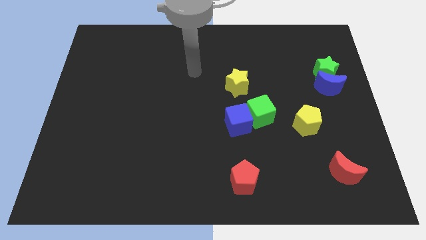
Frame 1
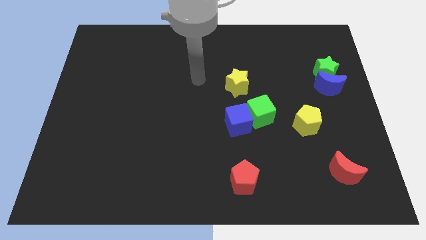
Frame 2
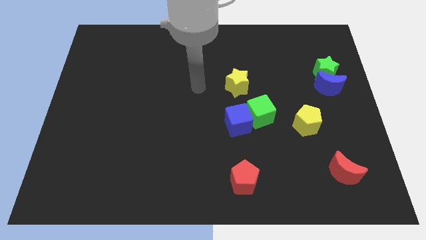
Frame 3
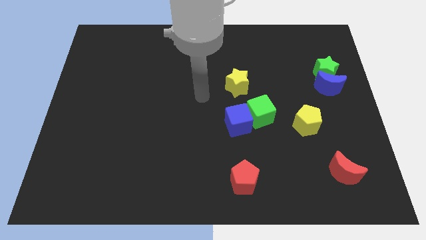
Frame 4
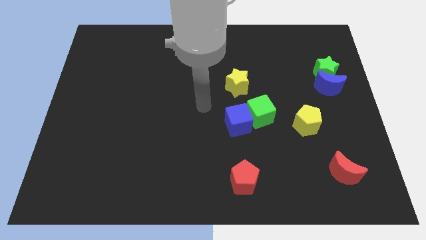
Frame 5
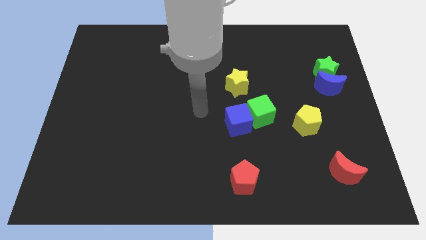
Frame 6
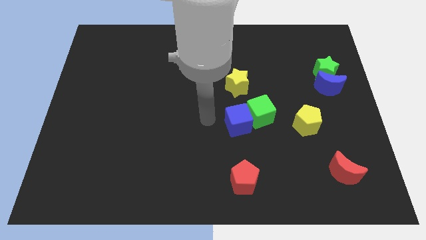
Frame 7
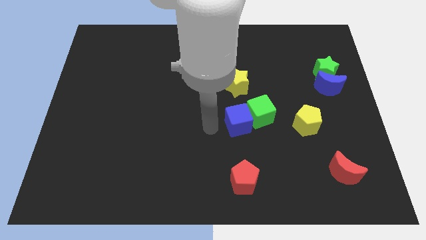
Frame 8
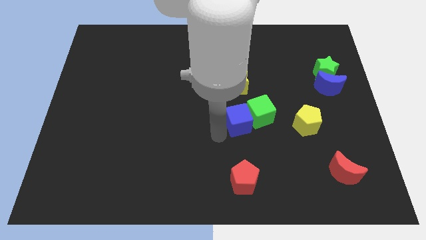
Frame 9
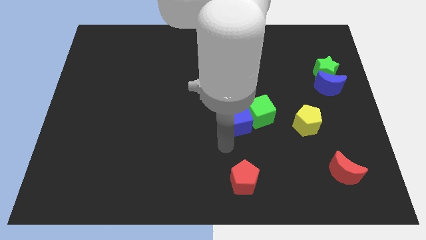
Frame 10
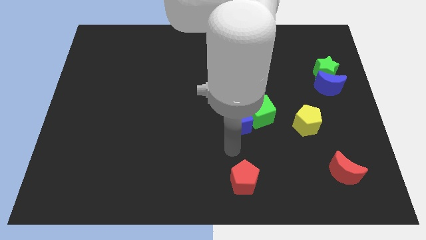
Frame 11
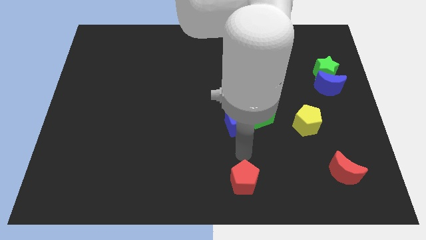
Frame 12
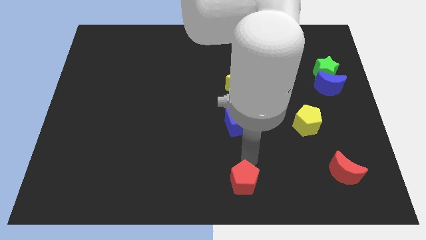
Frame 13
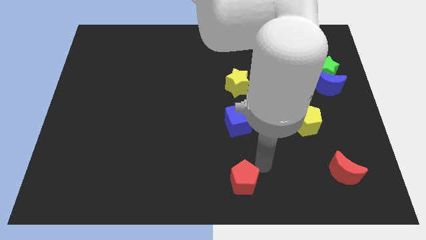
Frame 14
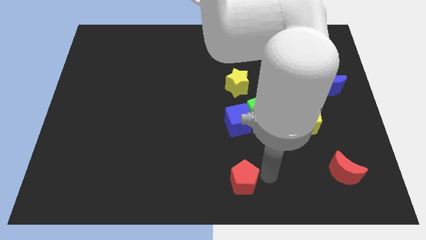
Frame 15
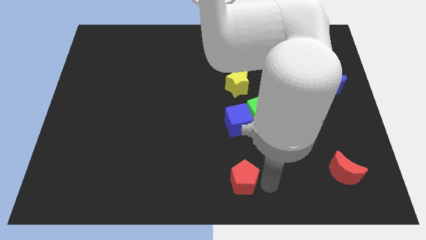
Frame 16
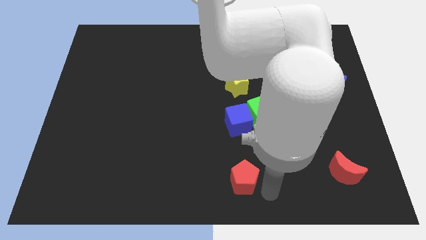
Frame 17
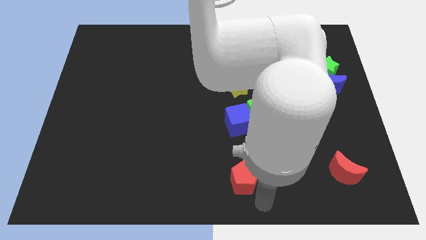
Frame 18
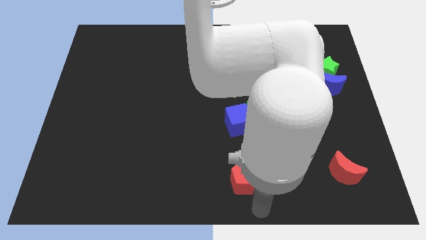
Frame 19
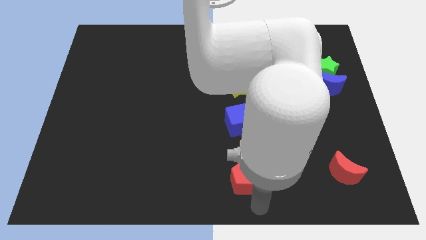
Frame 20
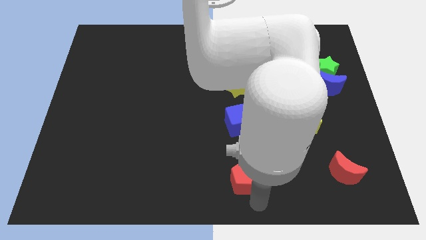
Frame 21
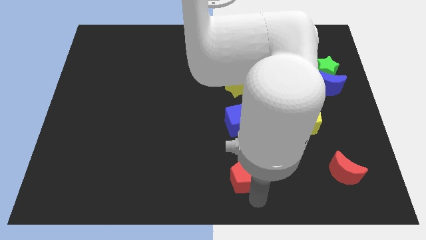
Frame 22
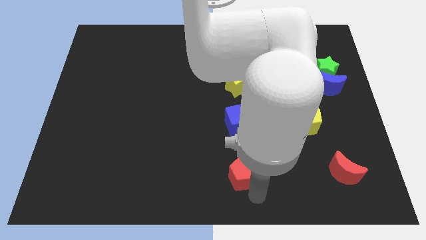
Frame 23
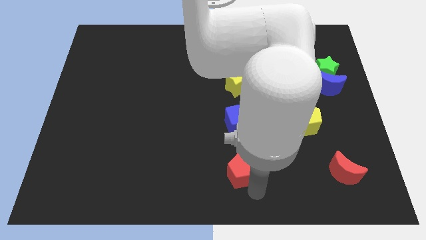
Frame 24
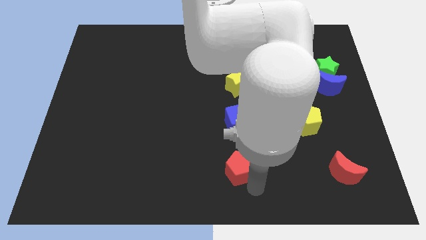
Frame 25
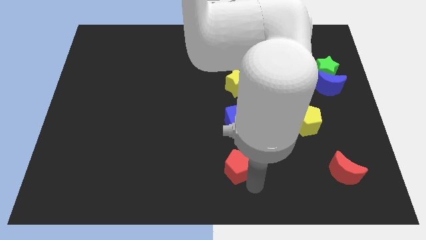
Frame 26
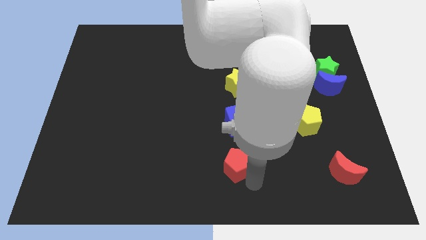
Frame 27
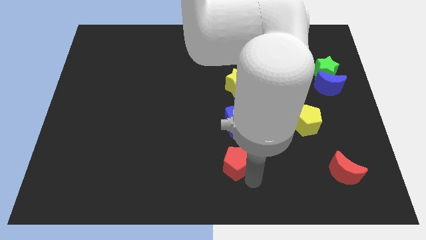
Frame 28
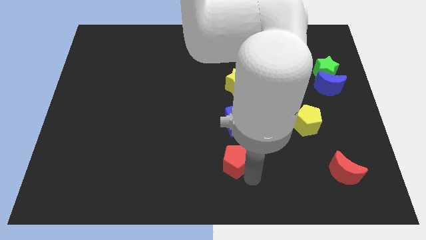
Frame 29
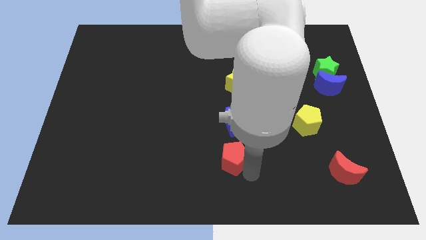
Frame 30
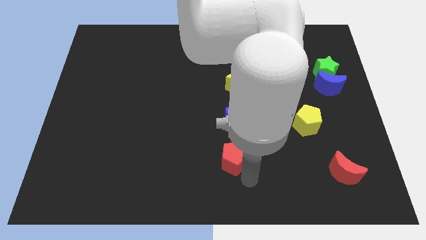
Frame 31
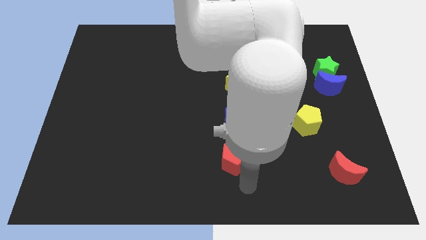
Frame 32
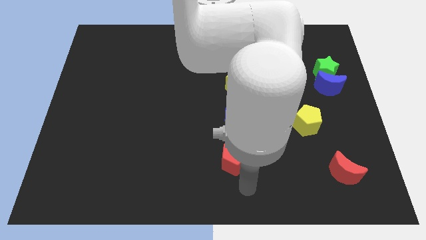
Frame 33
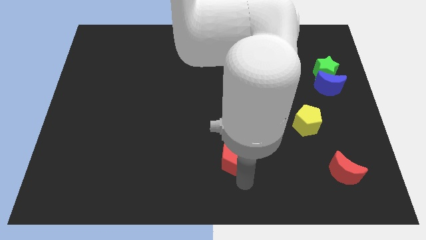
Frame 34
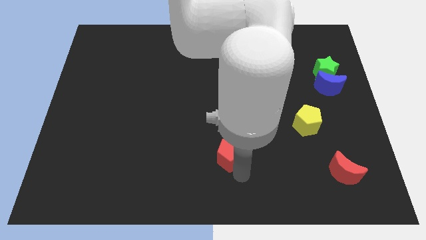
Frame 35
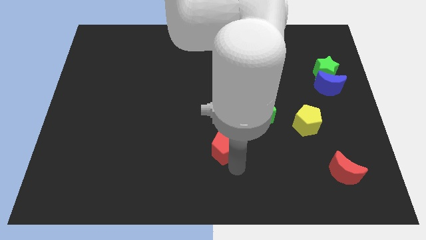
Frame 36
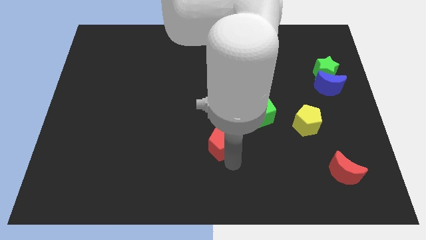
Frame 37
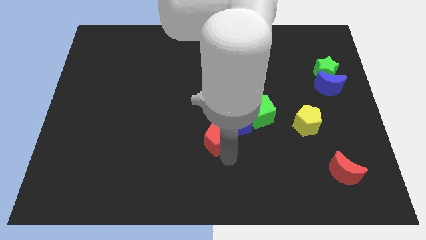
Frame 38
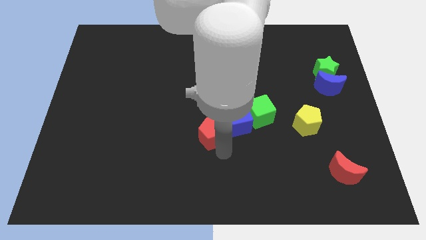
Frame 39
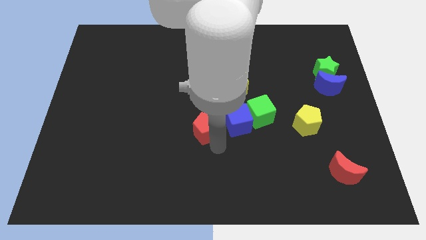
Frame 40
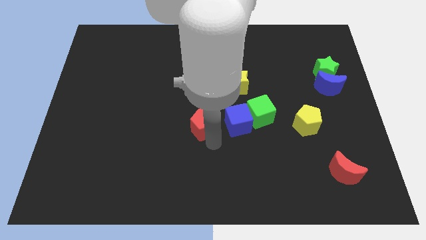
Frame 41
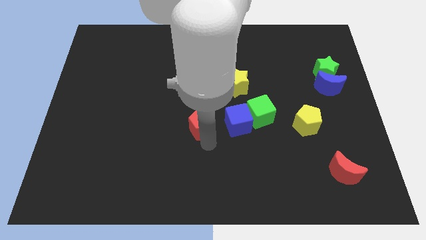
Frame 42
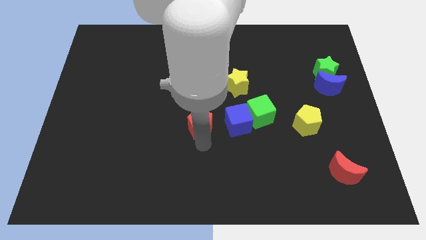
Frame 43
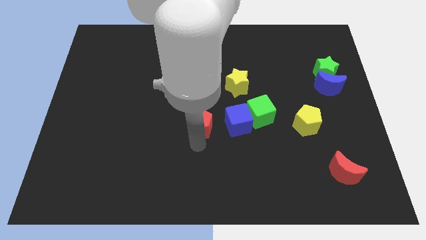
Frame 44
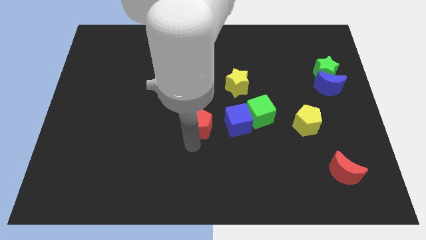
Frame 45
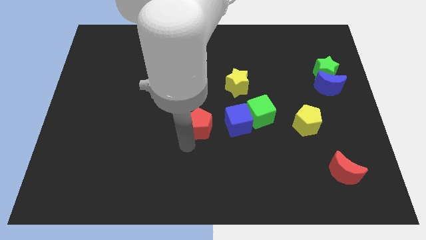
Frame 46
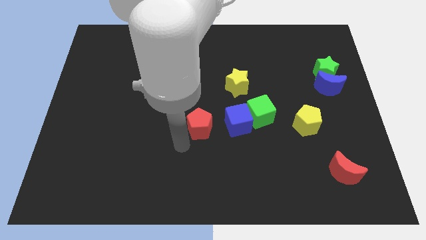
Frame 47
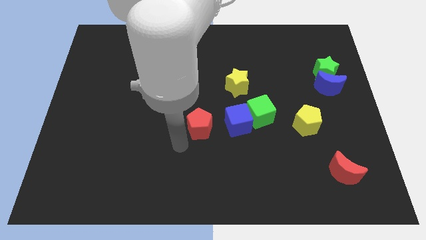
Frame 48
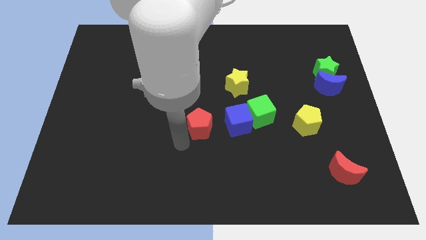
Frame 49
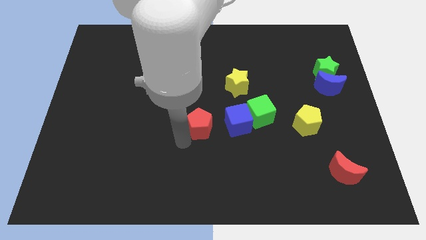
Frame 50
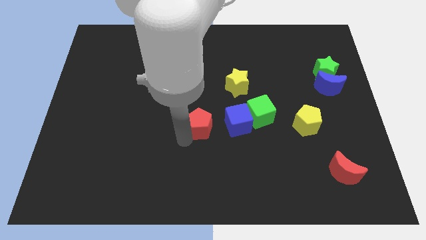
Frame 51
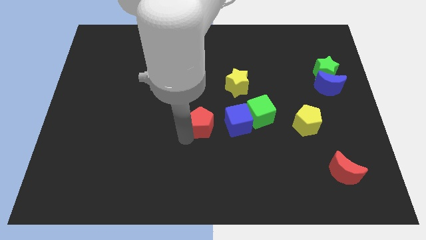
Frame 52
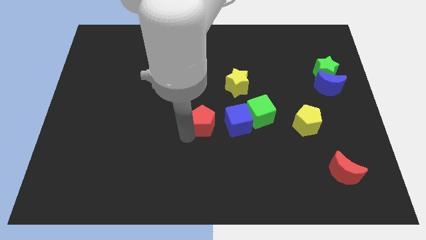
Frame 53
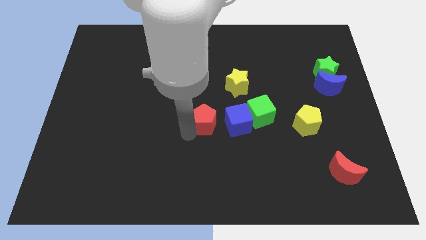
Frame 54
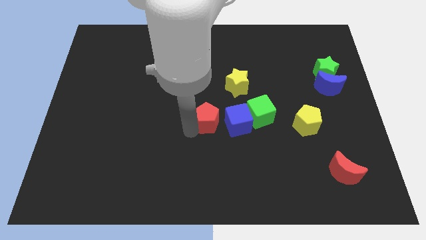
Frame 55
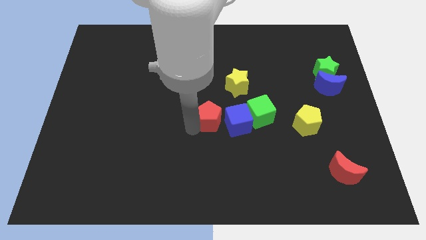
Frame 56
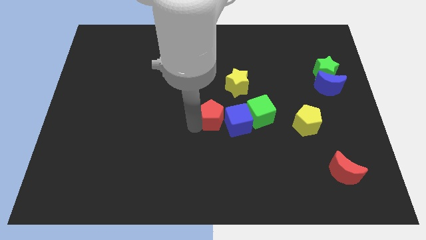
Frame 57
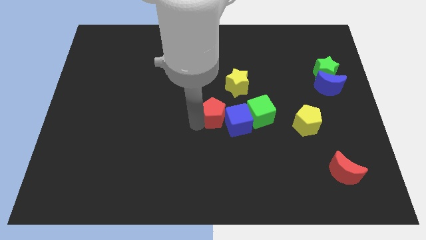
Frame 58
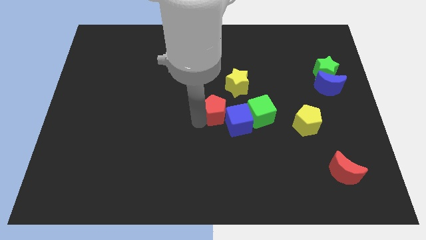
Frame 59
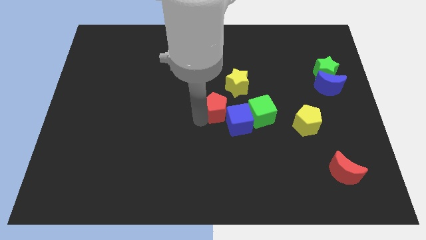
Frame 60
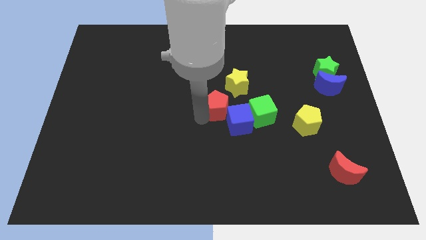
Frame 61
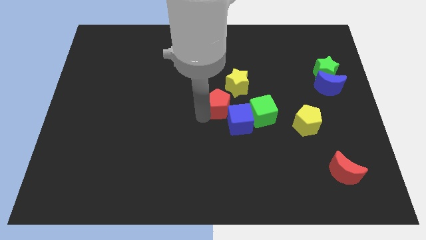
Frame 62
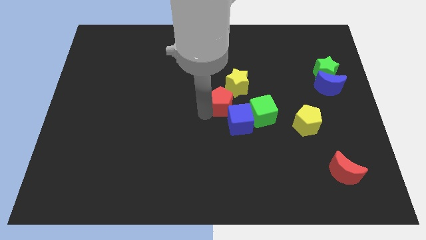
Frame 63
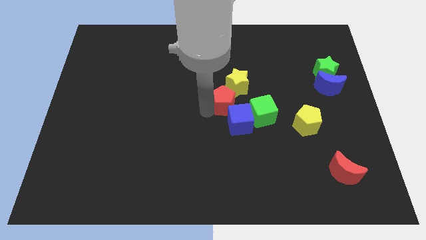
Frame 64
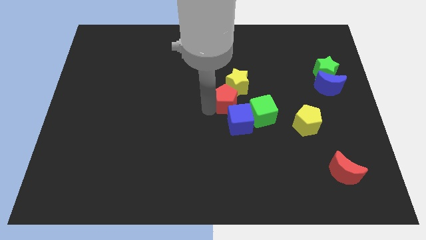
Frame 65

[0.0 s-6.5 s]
move the red pentagon close to the yellow star

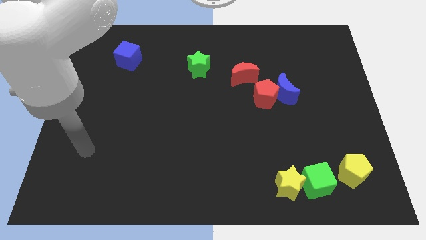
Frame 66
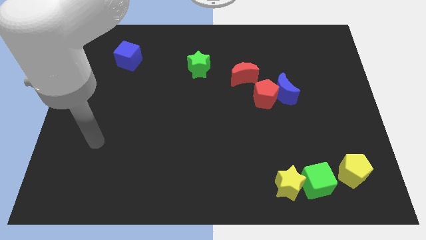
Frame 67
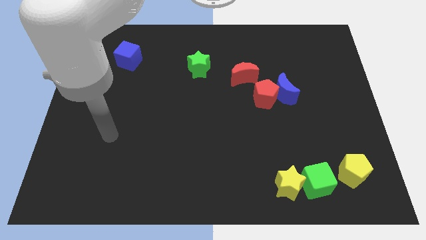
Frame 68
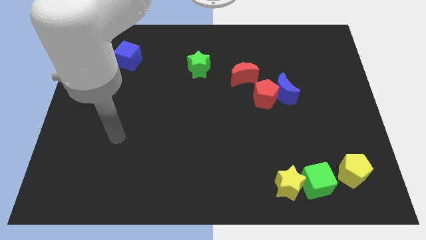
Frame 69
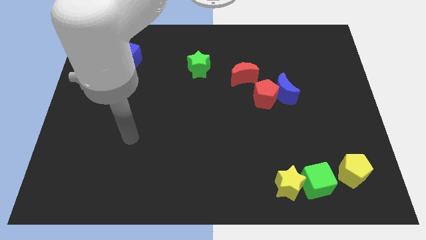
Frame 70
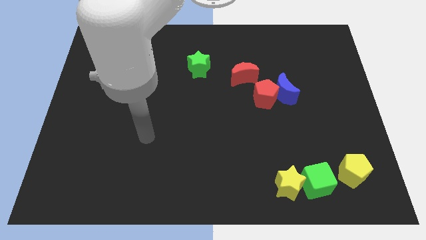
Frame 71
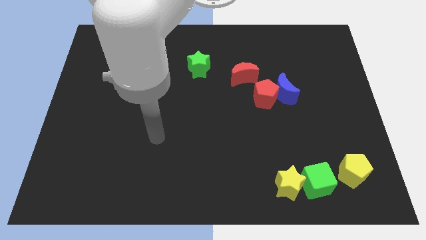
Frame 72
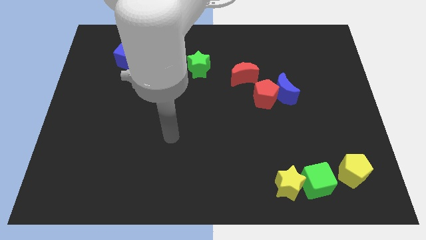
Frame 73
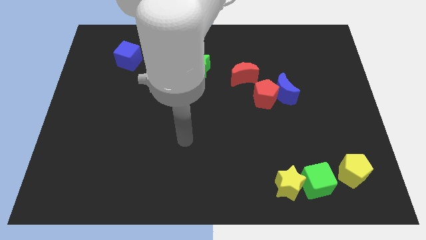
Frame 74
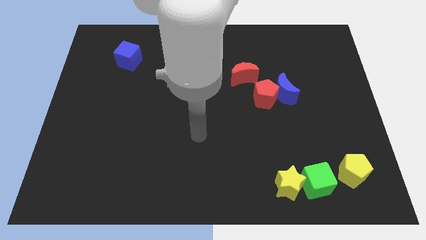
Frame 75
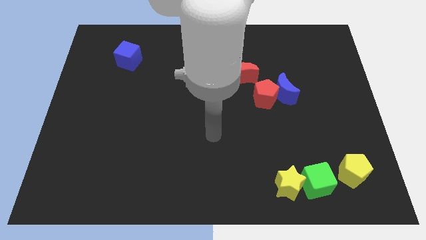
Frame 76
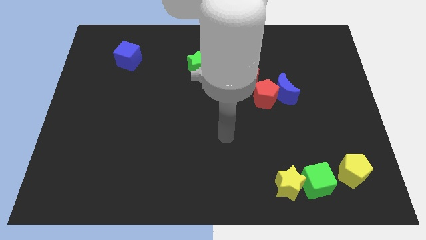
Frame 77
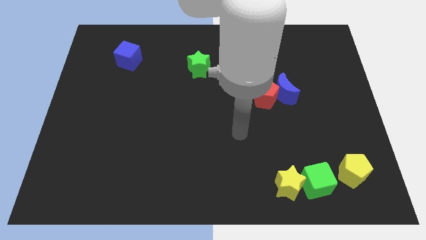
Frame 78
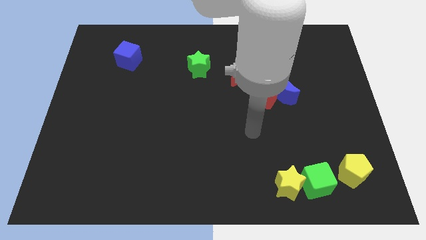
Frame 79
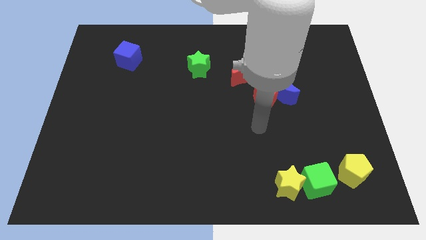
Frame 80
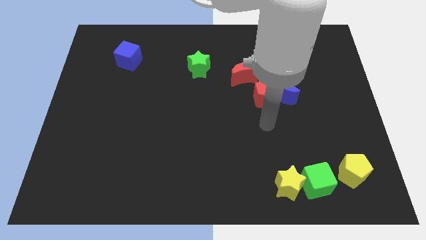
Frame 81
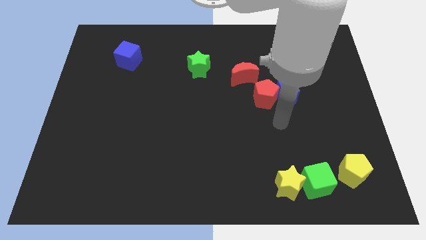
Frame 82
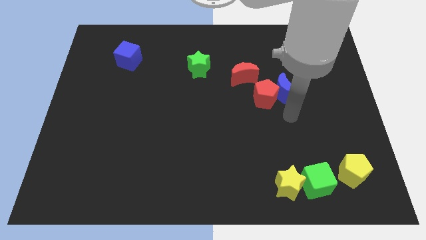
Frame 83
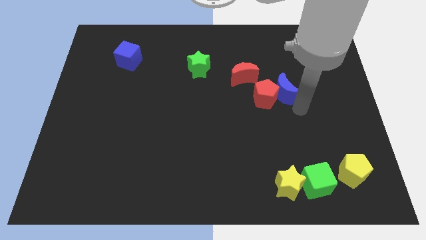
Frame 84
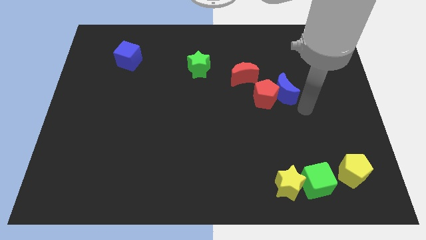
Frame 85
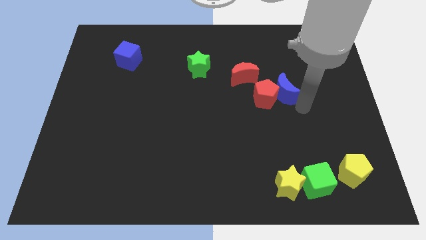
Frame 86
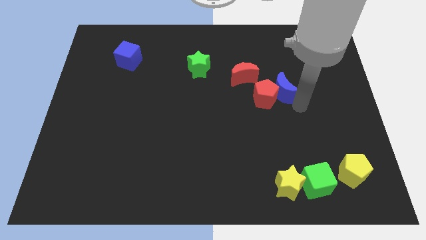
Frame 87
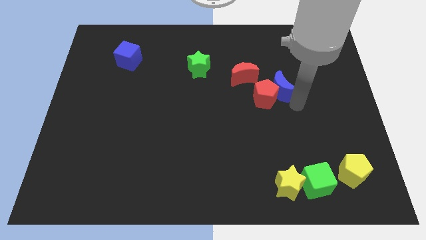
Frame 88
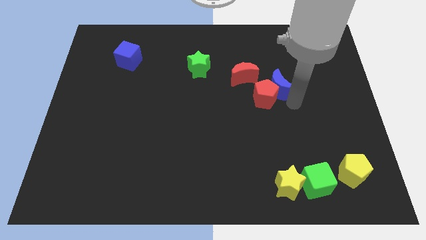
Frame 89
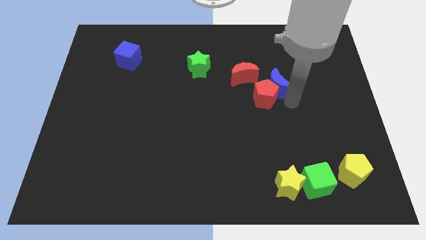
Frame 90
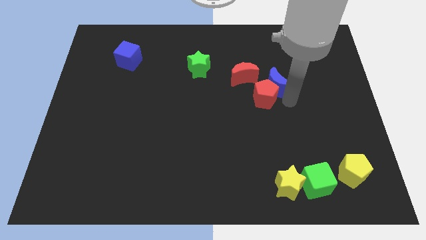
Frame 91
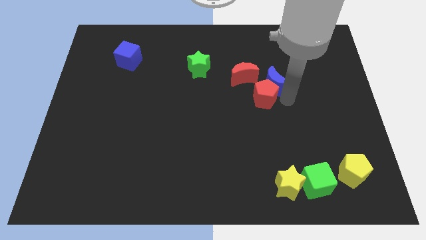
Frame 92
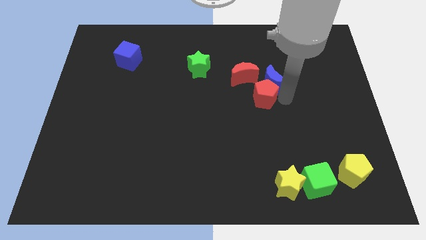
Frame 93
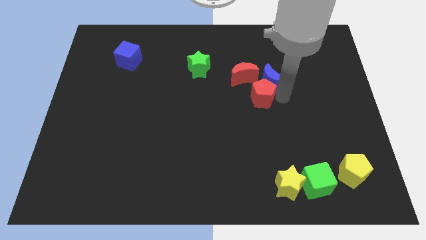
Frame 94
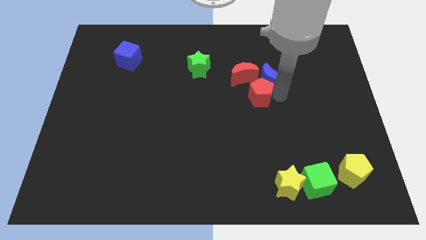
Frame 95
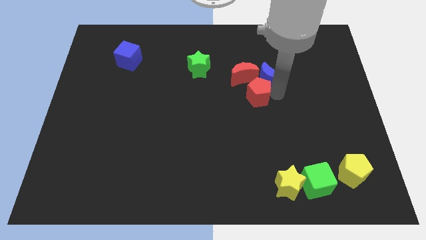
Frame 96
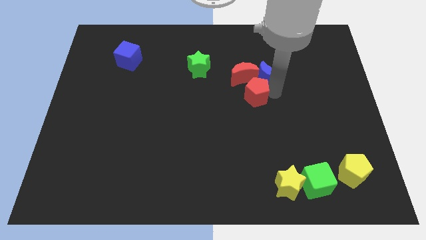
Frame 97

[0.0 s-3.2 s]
slide the blue moon close to the red moon
